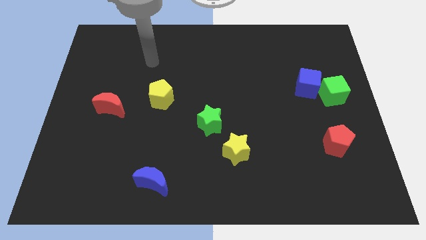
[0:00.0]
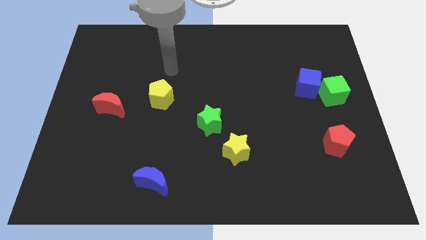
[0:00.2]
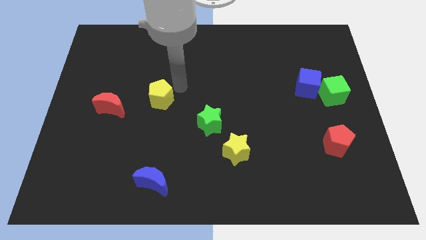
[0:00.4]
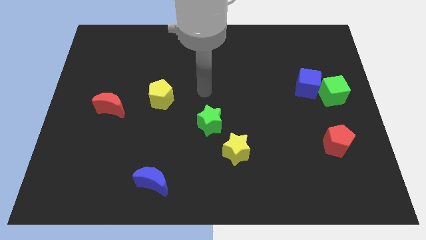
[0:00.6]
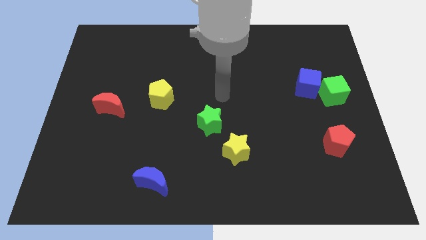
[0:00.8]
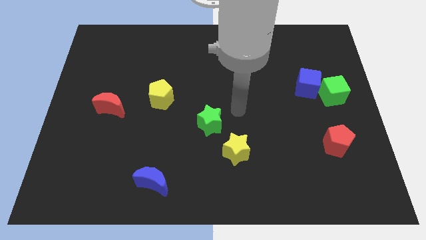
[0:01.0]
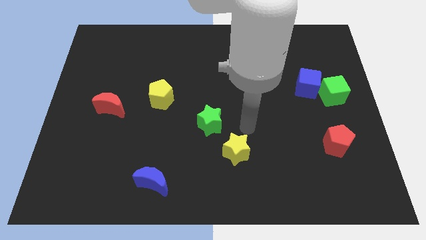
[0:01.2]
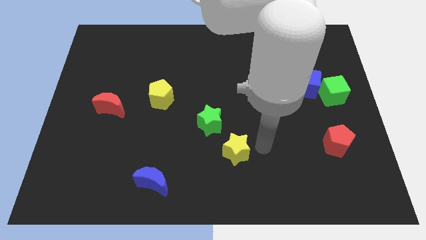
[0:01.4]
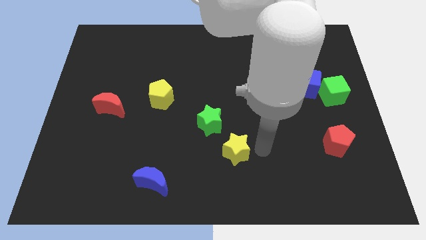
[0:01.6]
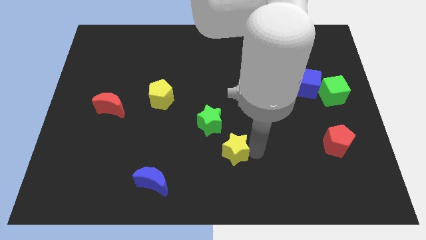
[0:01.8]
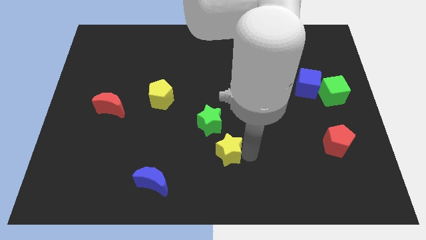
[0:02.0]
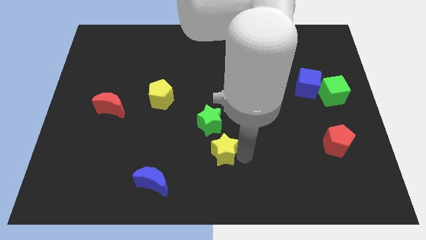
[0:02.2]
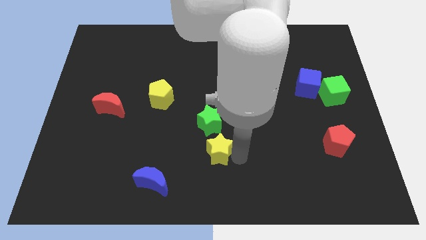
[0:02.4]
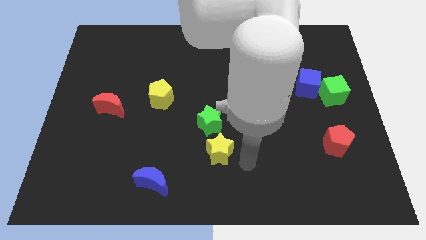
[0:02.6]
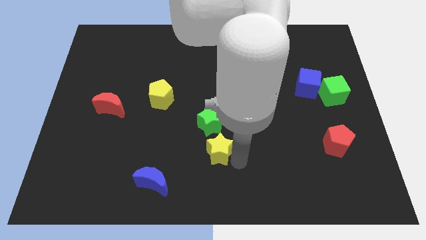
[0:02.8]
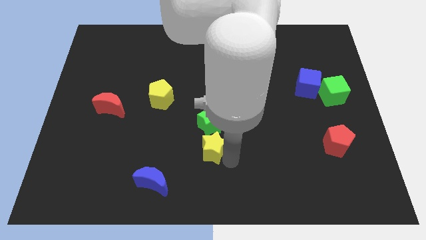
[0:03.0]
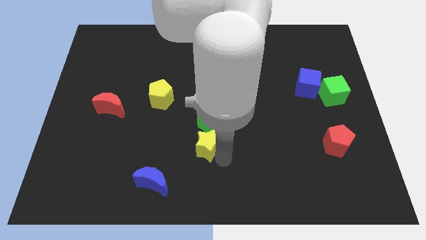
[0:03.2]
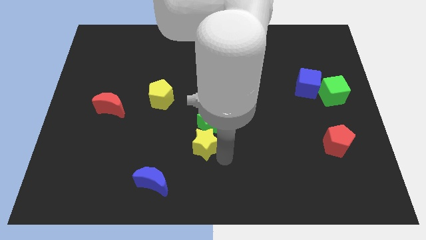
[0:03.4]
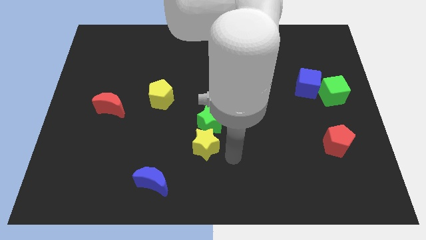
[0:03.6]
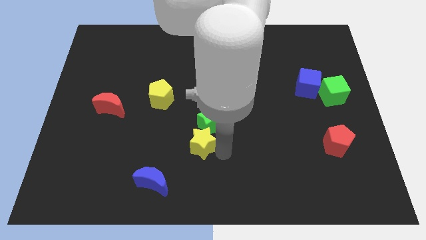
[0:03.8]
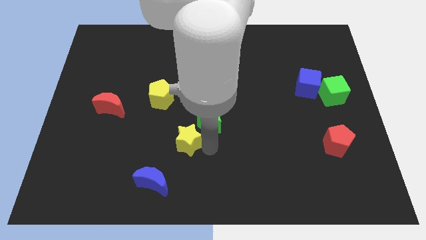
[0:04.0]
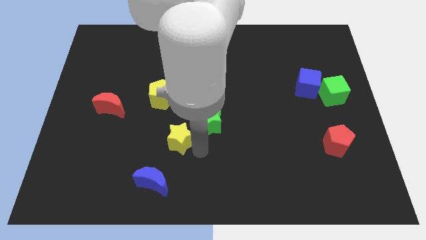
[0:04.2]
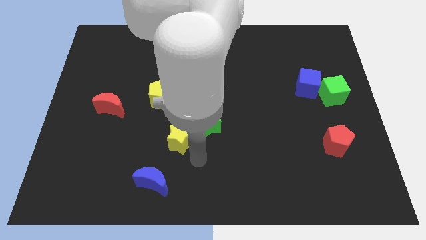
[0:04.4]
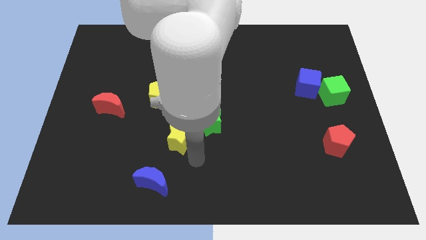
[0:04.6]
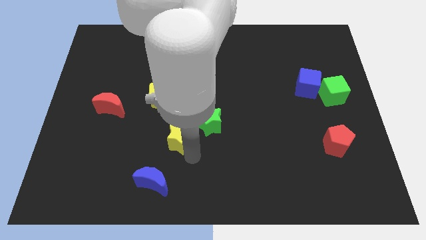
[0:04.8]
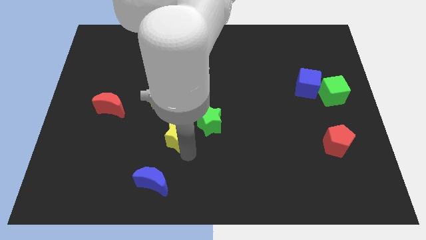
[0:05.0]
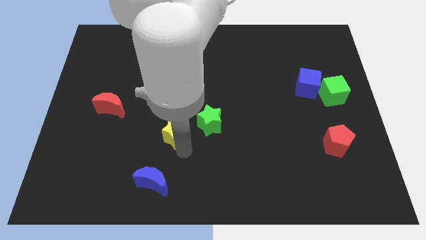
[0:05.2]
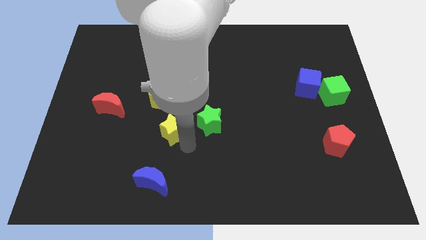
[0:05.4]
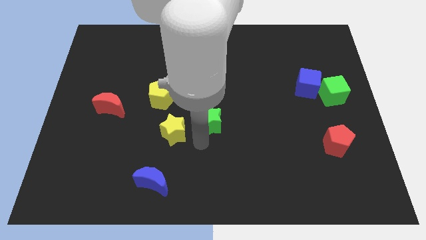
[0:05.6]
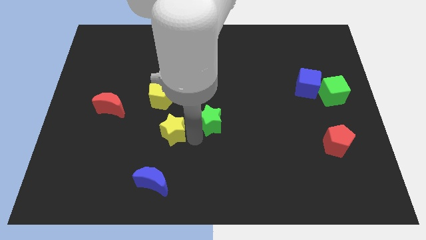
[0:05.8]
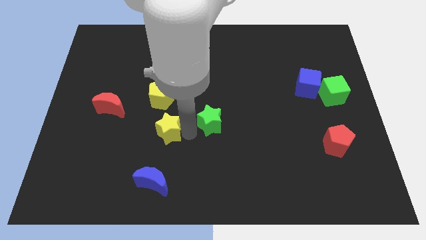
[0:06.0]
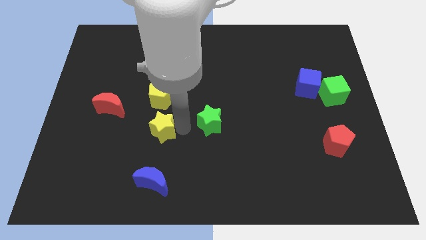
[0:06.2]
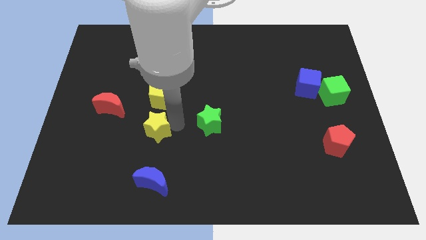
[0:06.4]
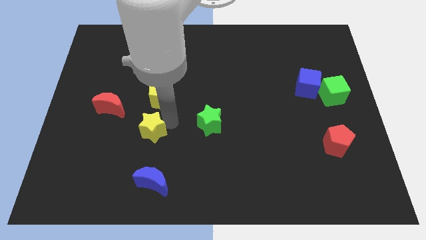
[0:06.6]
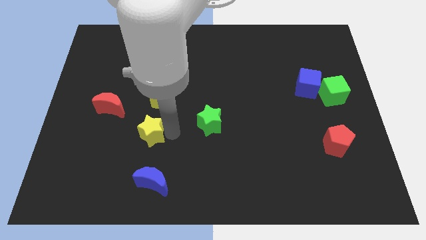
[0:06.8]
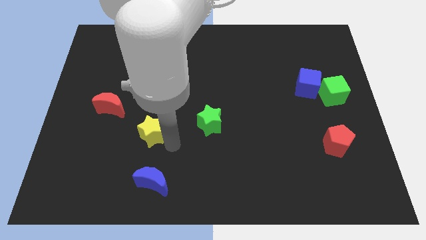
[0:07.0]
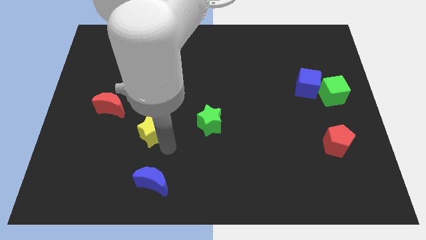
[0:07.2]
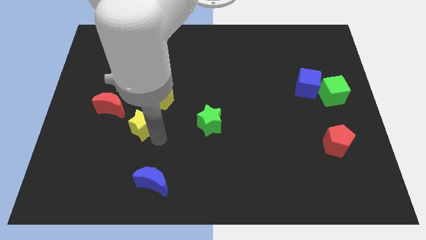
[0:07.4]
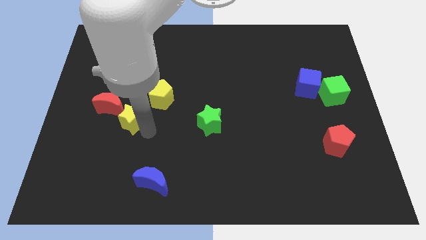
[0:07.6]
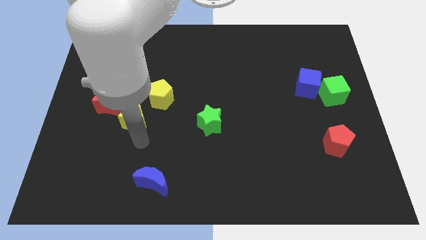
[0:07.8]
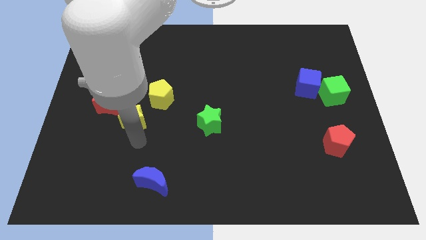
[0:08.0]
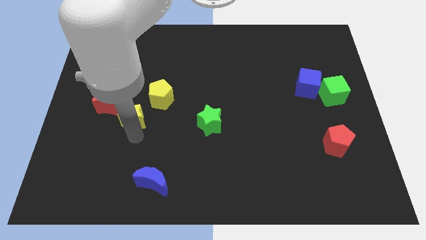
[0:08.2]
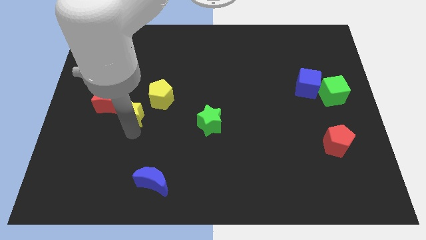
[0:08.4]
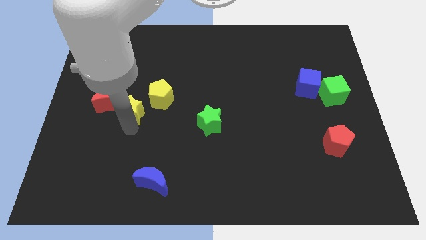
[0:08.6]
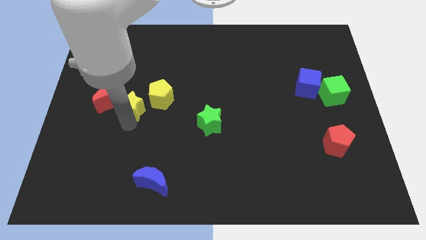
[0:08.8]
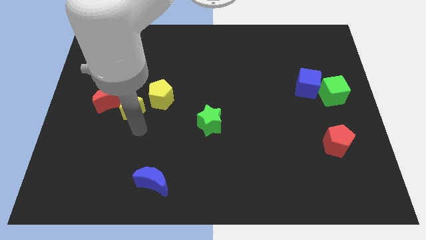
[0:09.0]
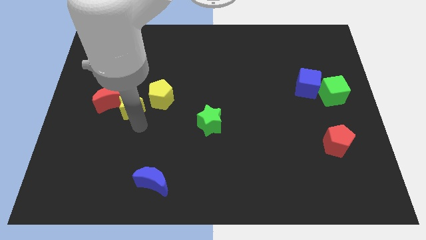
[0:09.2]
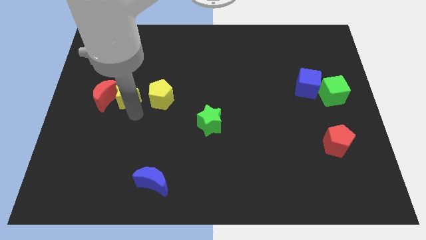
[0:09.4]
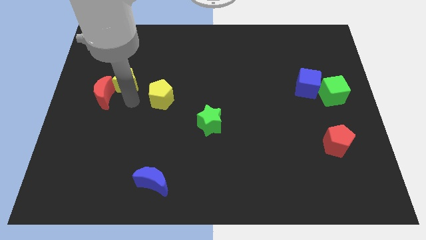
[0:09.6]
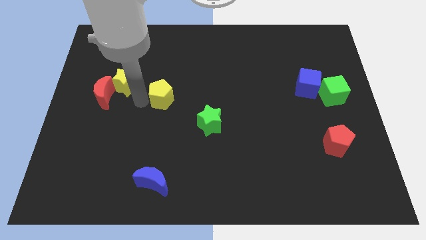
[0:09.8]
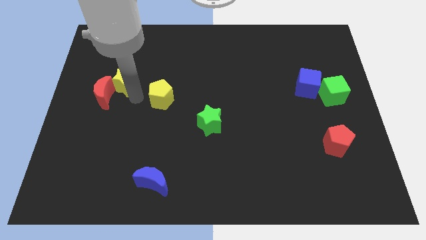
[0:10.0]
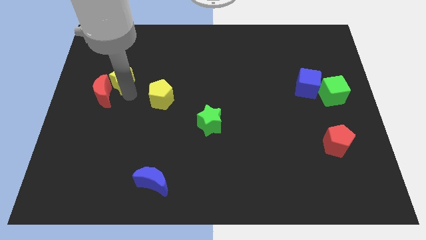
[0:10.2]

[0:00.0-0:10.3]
push the yellow star above the red moon

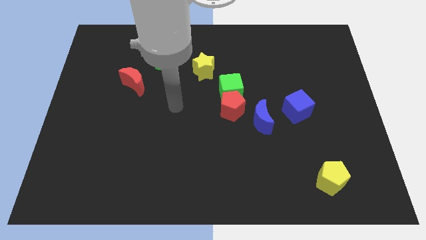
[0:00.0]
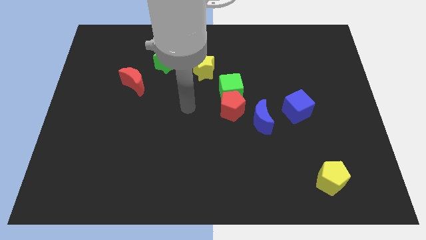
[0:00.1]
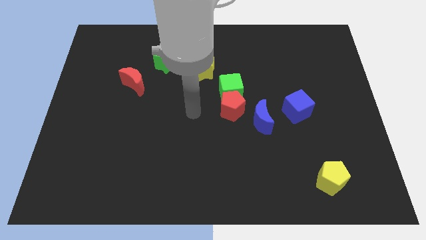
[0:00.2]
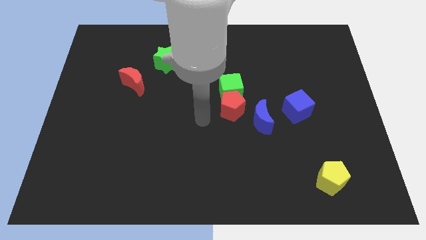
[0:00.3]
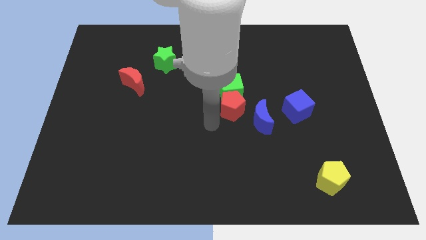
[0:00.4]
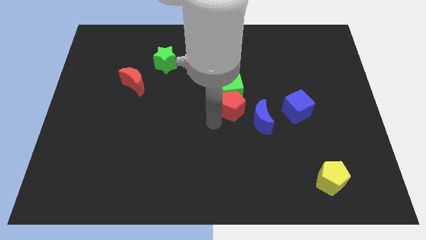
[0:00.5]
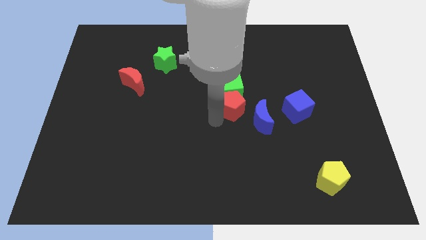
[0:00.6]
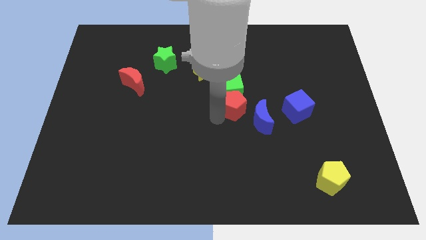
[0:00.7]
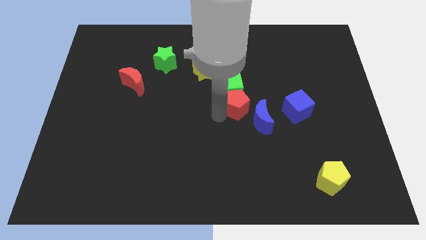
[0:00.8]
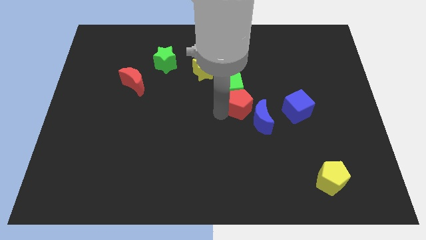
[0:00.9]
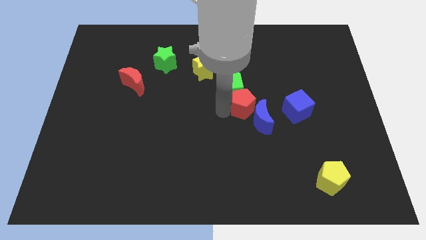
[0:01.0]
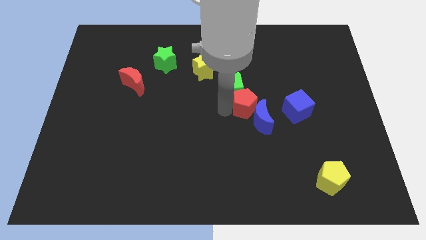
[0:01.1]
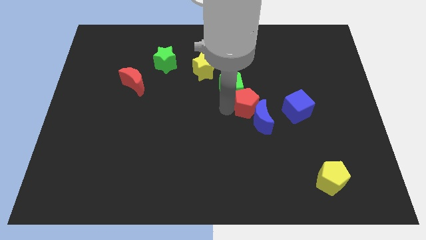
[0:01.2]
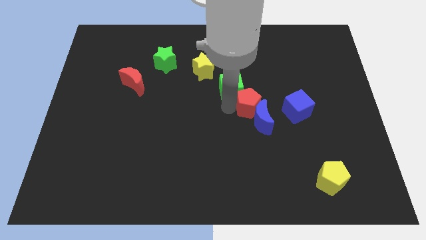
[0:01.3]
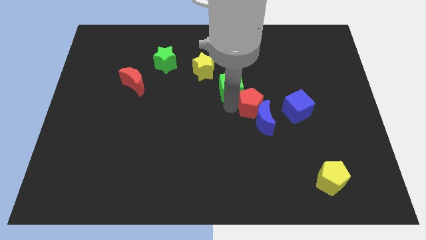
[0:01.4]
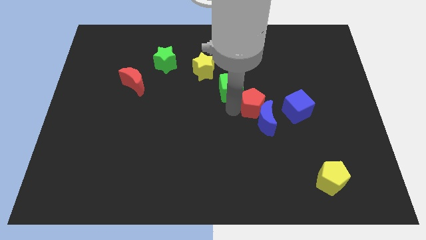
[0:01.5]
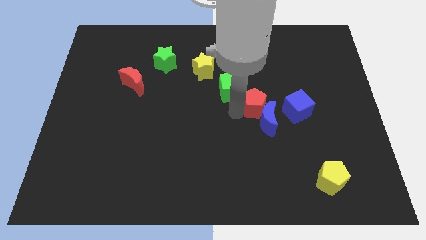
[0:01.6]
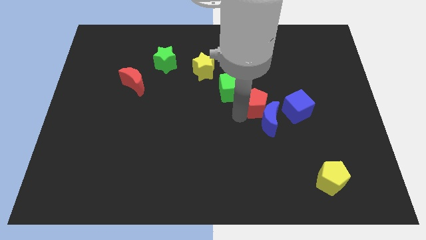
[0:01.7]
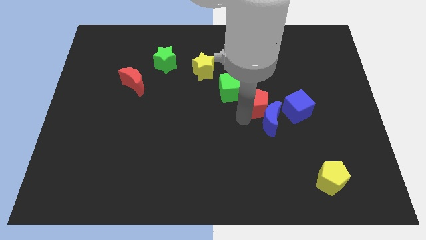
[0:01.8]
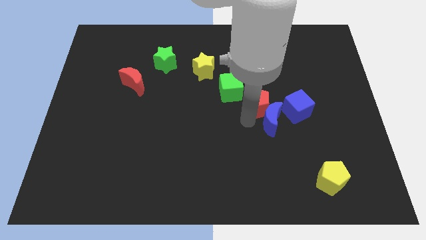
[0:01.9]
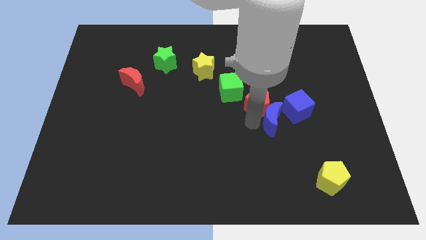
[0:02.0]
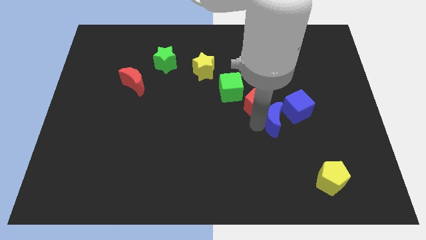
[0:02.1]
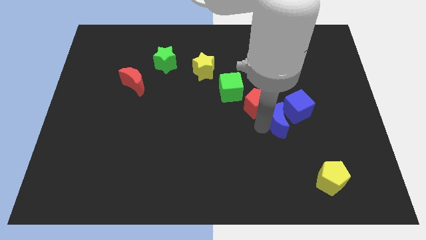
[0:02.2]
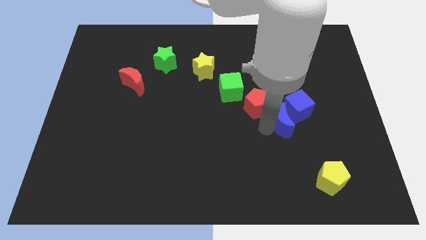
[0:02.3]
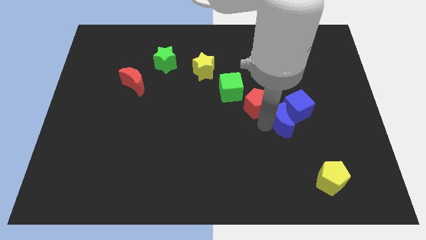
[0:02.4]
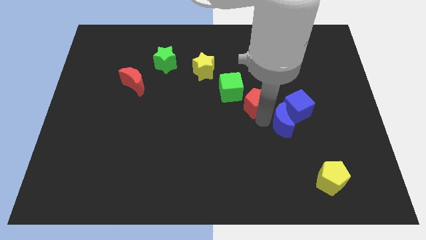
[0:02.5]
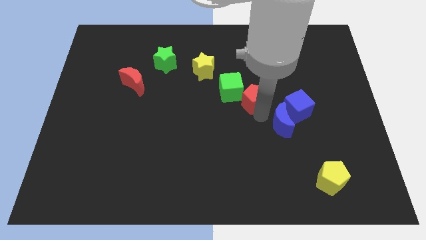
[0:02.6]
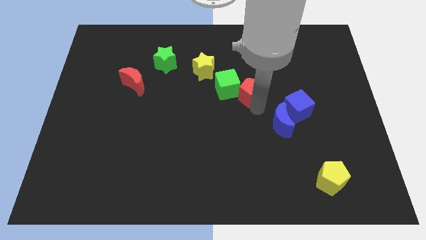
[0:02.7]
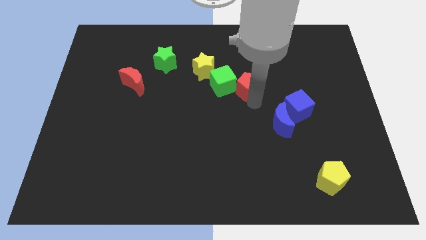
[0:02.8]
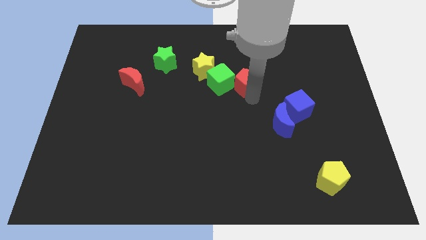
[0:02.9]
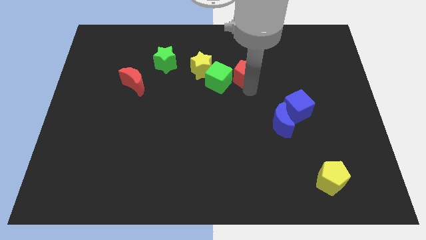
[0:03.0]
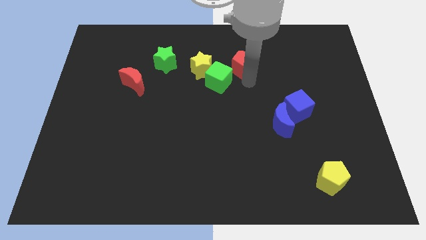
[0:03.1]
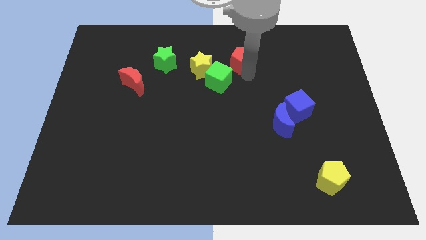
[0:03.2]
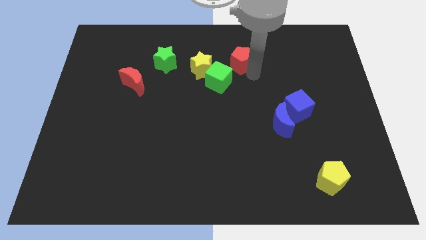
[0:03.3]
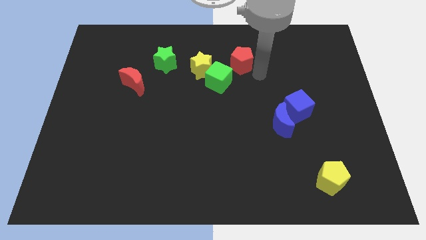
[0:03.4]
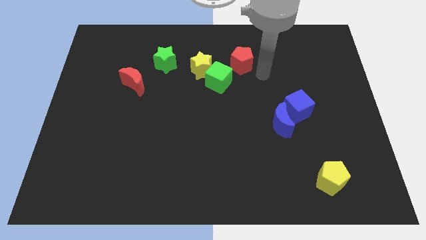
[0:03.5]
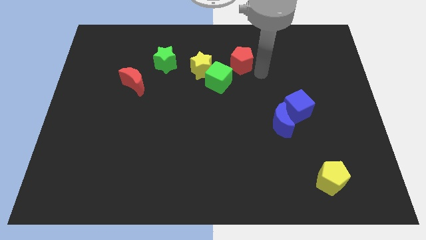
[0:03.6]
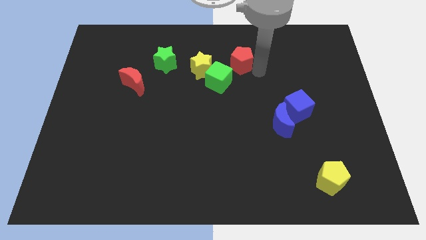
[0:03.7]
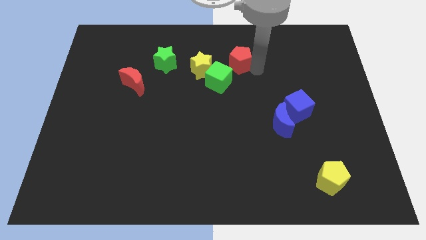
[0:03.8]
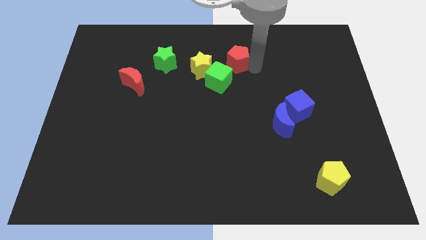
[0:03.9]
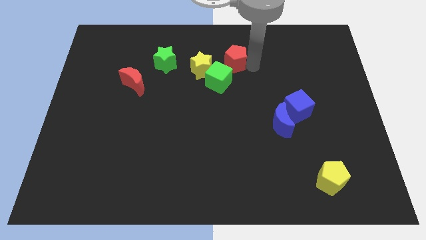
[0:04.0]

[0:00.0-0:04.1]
slide the red pentagon to the top side of the green cube
